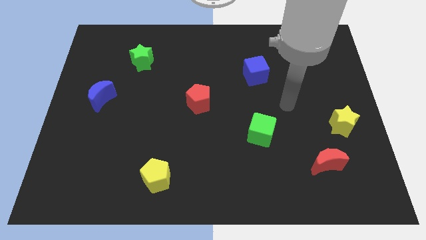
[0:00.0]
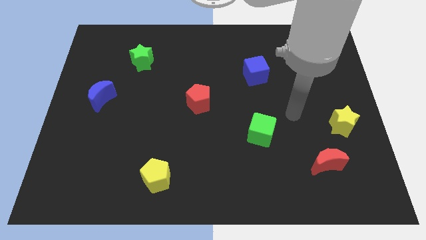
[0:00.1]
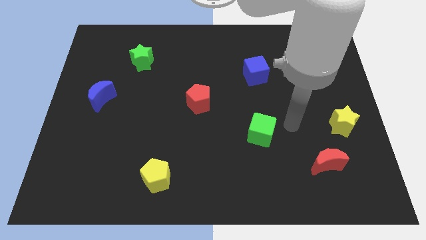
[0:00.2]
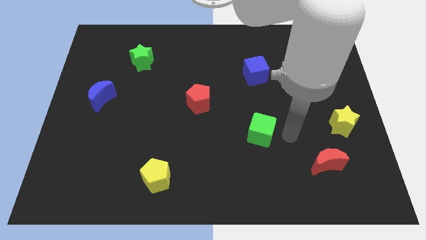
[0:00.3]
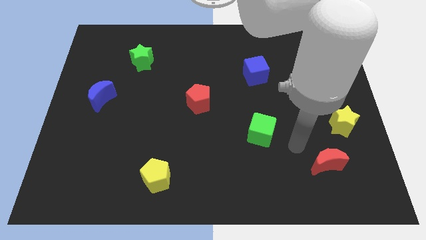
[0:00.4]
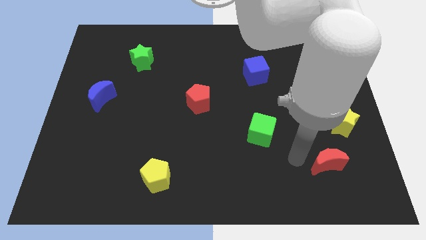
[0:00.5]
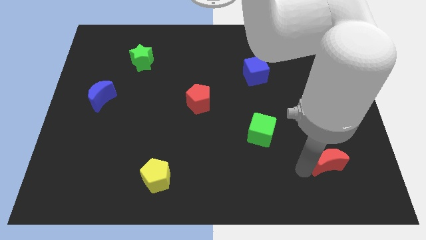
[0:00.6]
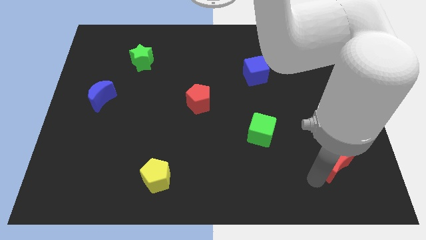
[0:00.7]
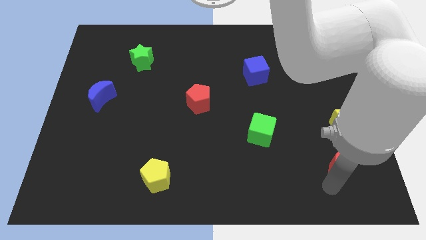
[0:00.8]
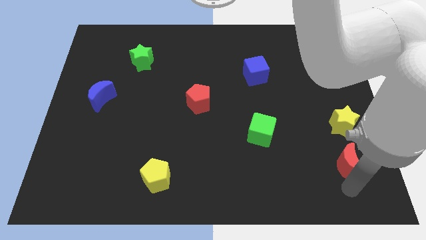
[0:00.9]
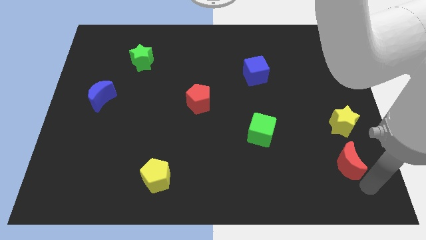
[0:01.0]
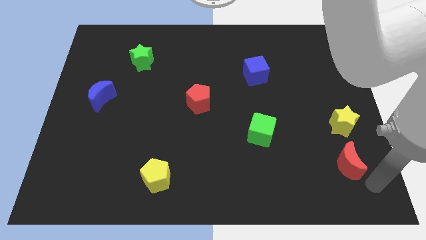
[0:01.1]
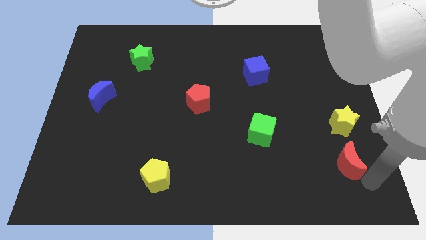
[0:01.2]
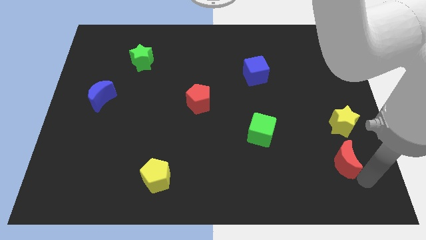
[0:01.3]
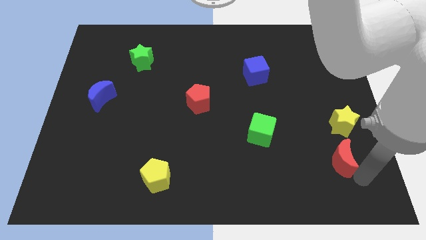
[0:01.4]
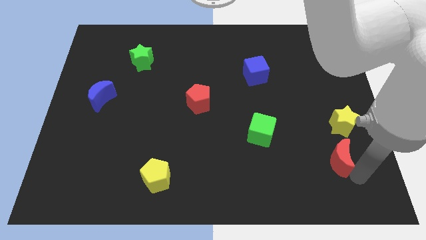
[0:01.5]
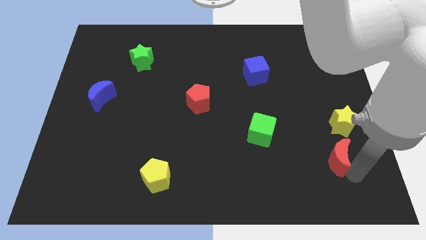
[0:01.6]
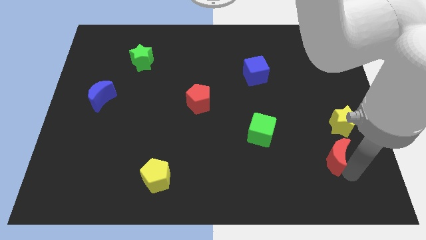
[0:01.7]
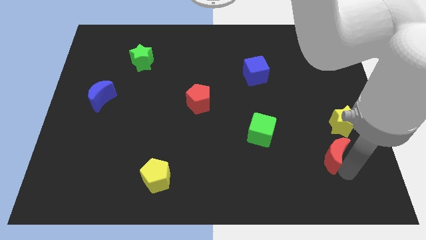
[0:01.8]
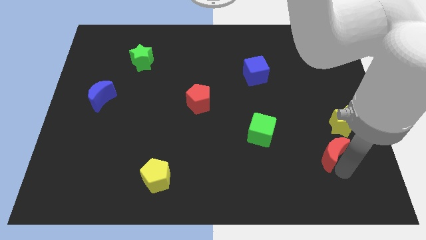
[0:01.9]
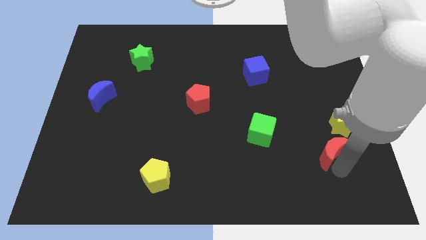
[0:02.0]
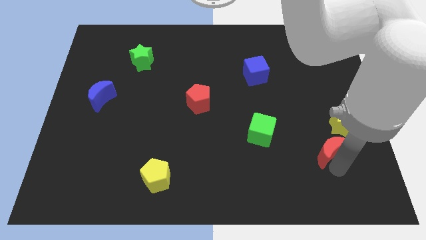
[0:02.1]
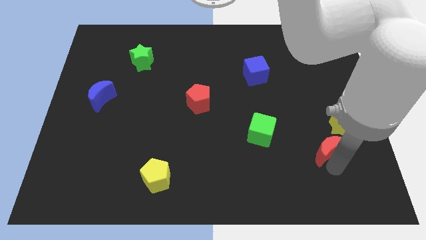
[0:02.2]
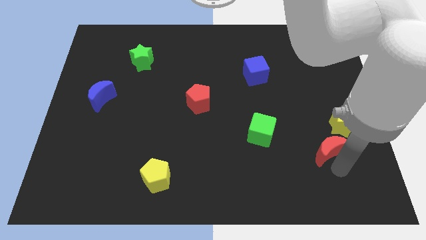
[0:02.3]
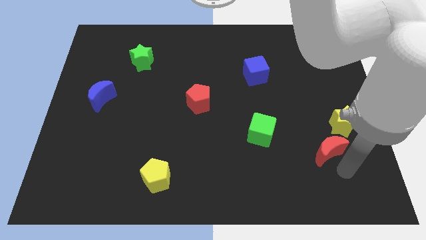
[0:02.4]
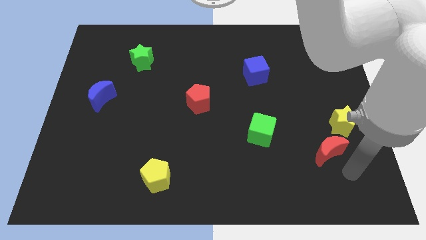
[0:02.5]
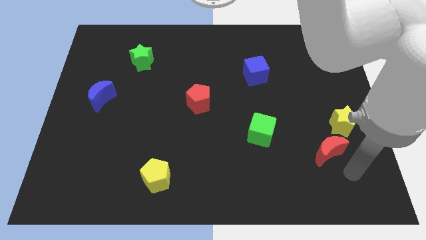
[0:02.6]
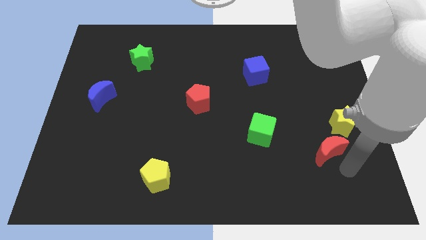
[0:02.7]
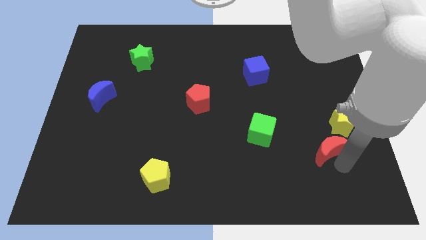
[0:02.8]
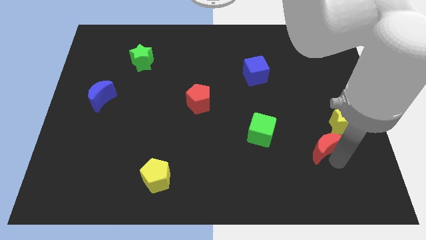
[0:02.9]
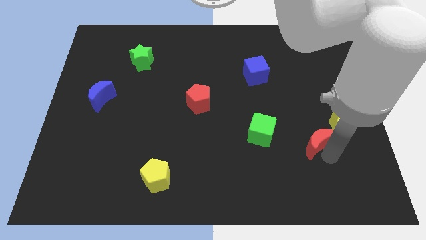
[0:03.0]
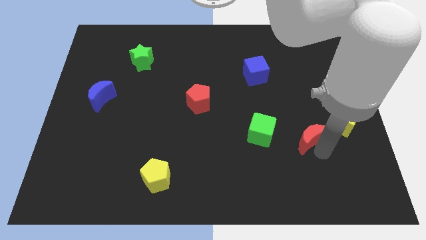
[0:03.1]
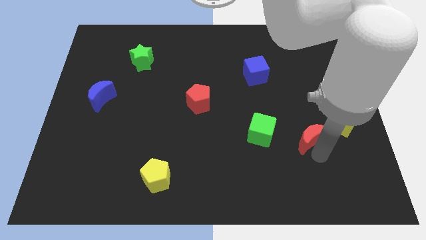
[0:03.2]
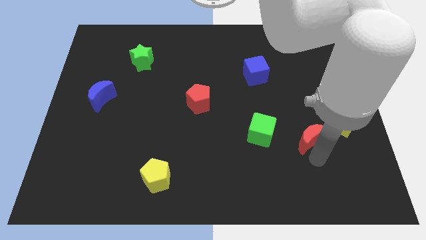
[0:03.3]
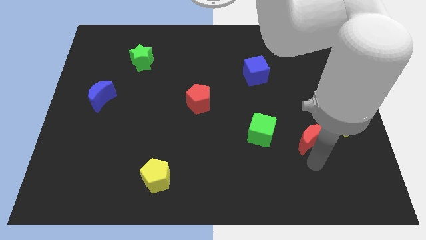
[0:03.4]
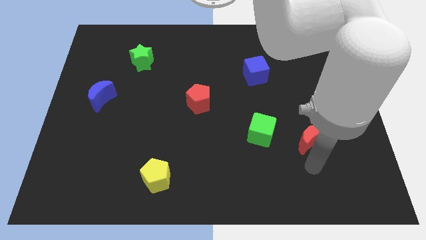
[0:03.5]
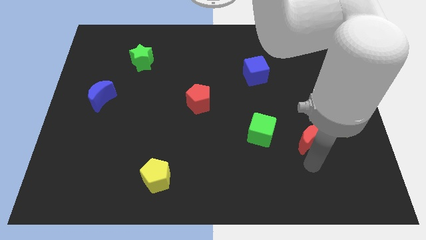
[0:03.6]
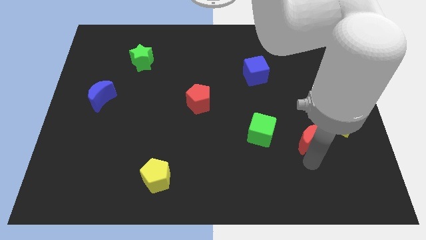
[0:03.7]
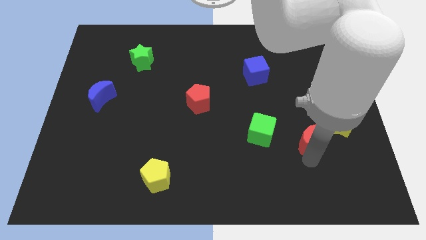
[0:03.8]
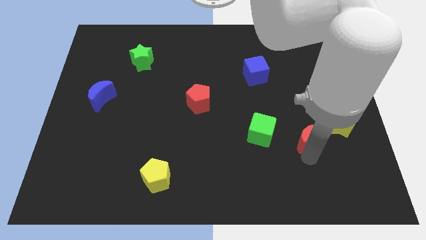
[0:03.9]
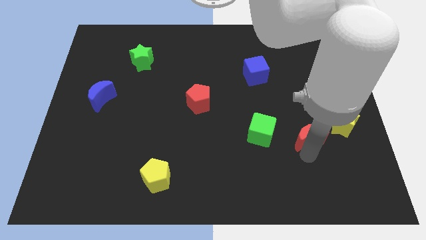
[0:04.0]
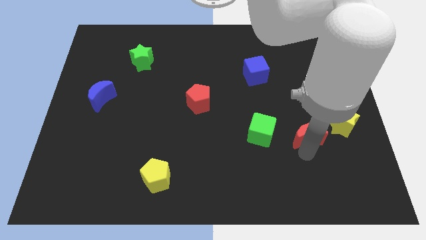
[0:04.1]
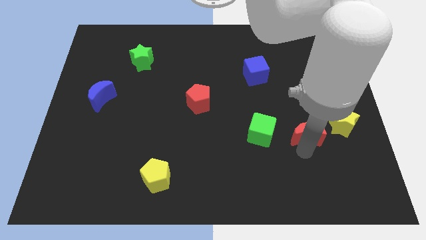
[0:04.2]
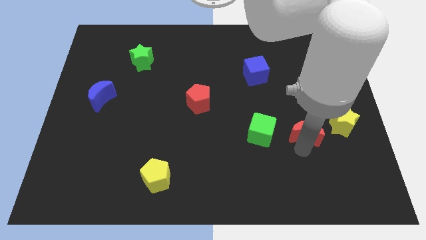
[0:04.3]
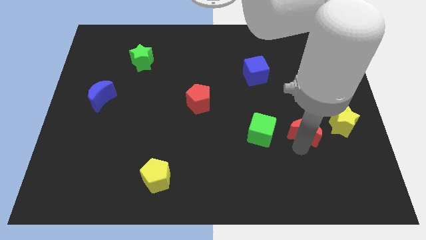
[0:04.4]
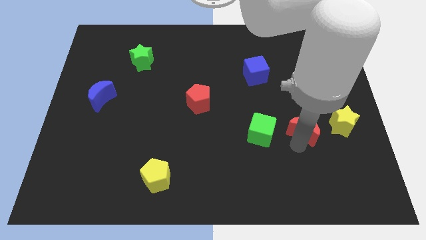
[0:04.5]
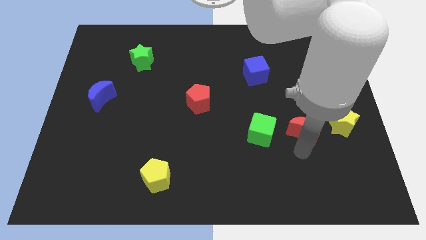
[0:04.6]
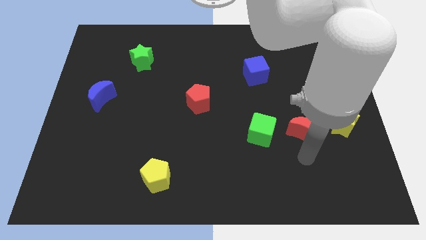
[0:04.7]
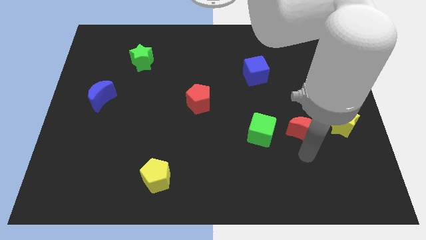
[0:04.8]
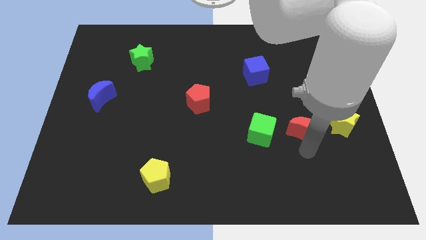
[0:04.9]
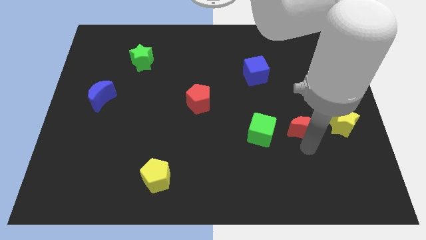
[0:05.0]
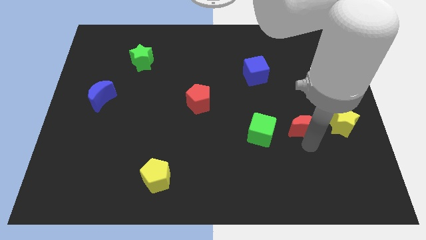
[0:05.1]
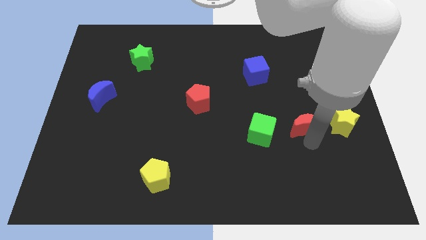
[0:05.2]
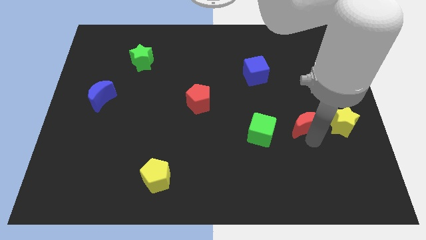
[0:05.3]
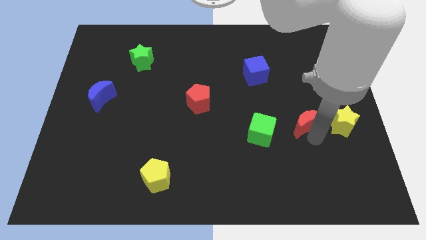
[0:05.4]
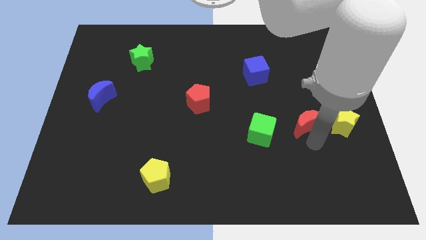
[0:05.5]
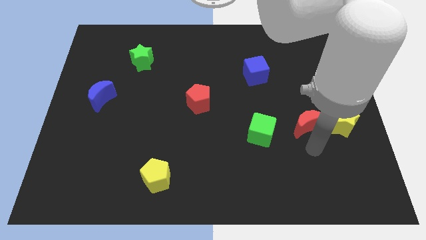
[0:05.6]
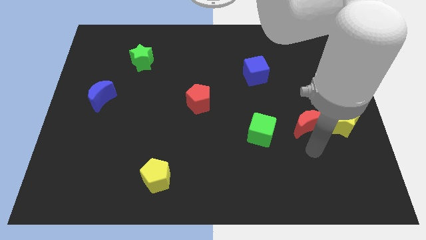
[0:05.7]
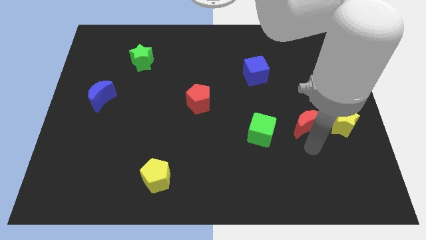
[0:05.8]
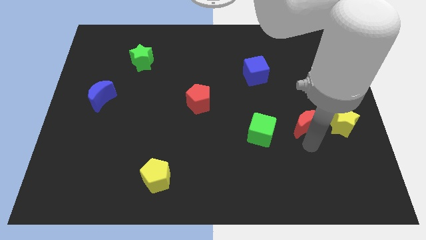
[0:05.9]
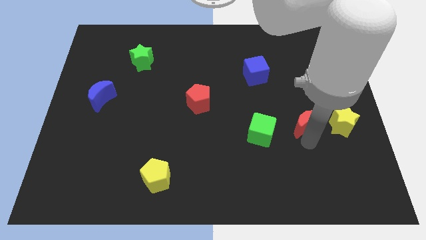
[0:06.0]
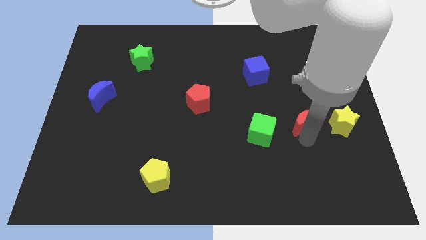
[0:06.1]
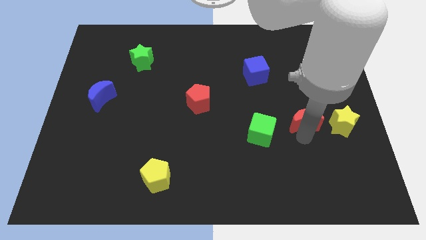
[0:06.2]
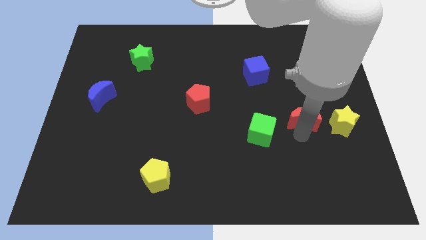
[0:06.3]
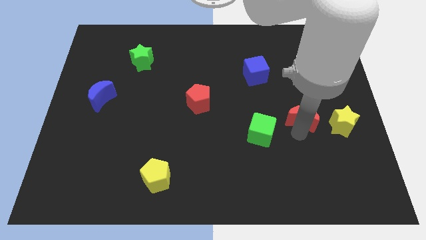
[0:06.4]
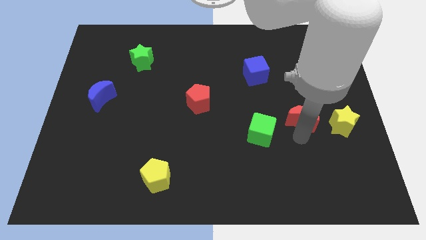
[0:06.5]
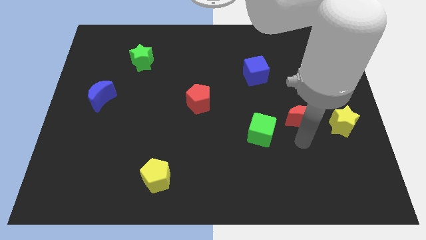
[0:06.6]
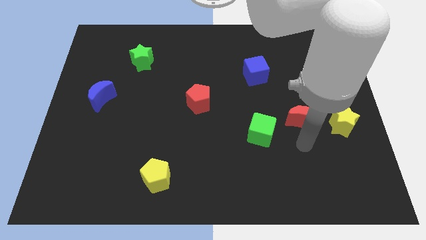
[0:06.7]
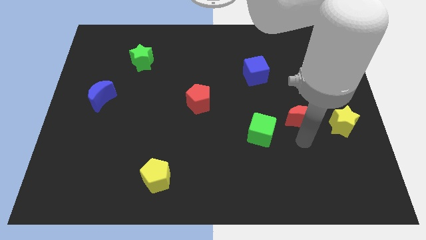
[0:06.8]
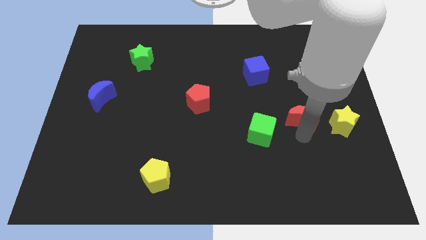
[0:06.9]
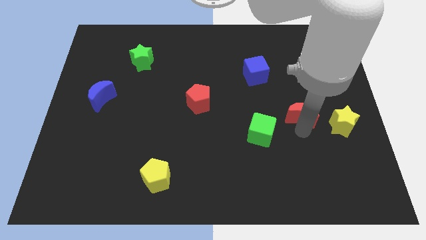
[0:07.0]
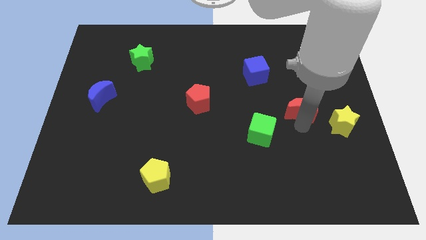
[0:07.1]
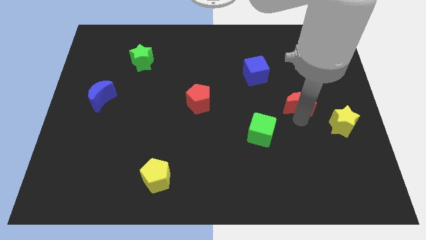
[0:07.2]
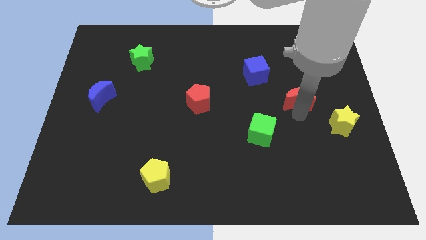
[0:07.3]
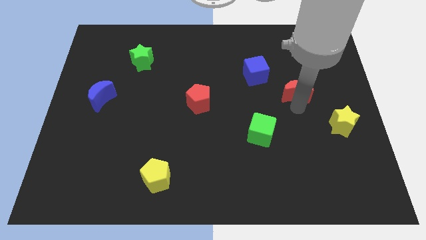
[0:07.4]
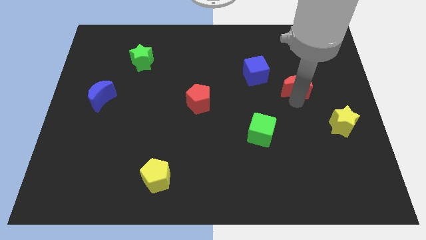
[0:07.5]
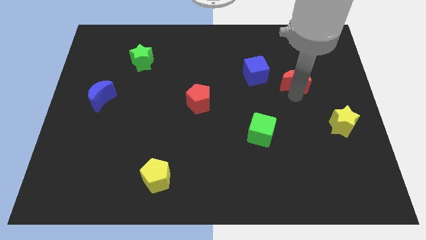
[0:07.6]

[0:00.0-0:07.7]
push the red moon just right of the blue cube

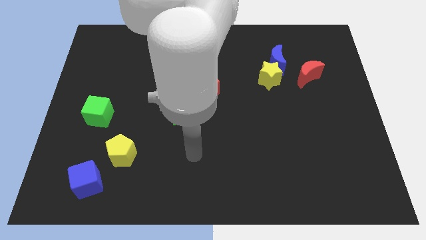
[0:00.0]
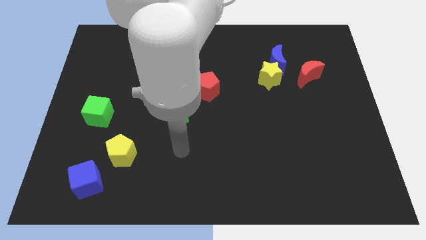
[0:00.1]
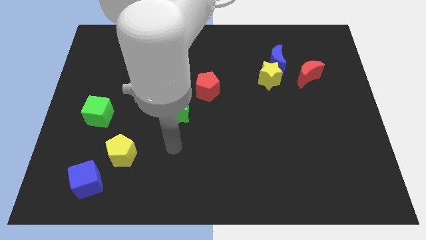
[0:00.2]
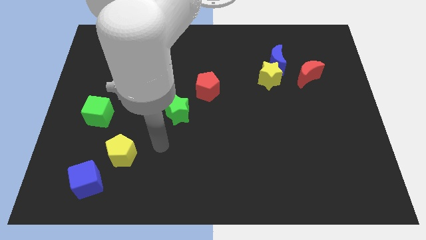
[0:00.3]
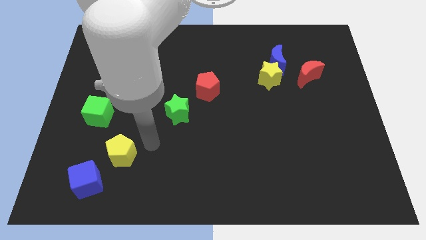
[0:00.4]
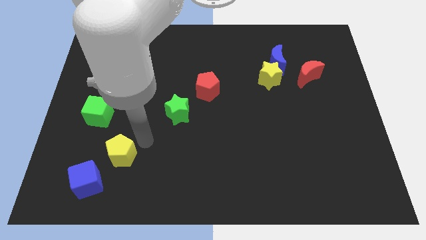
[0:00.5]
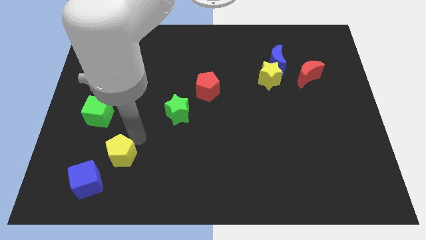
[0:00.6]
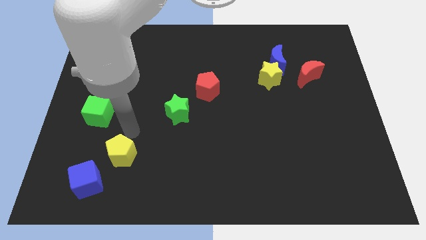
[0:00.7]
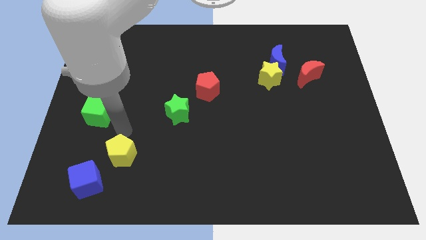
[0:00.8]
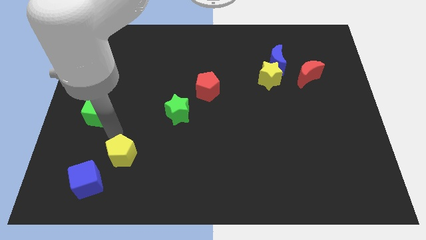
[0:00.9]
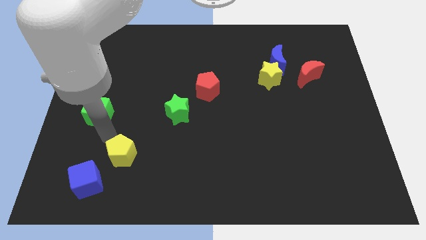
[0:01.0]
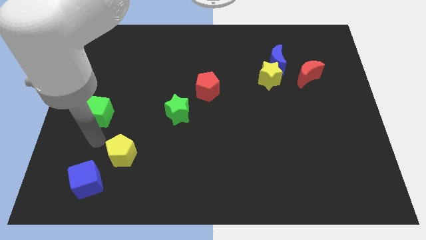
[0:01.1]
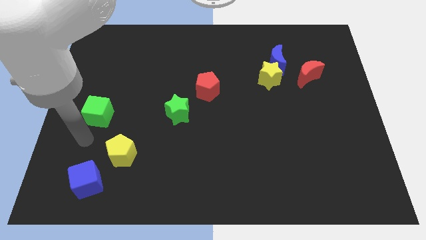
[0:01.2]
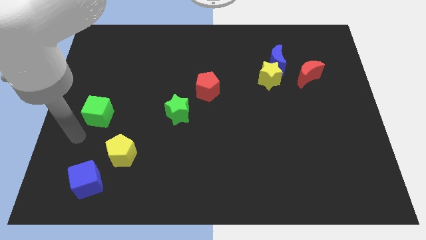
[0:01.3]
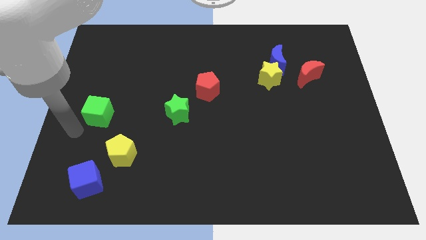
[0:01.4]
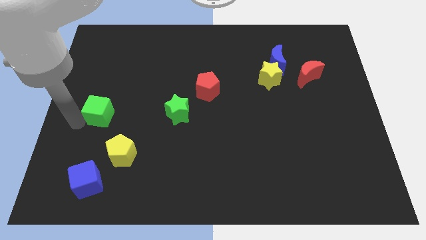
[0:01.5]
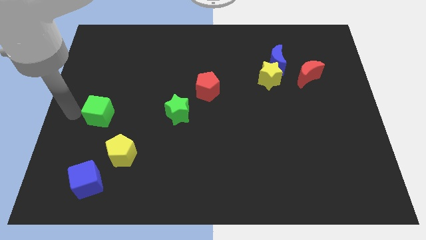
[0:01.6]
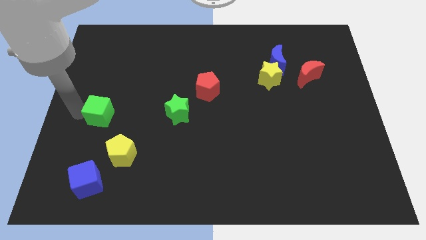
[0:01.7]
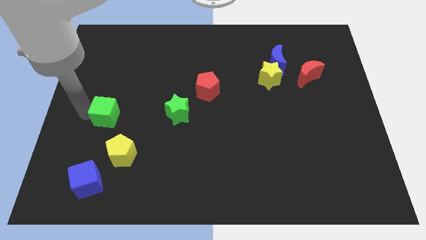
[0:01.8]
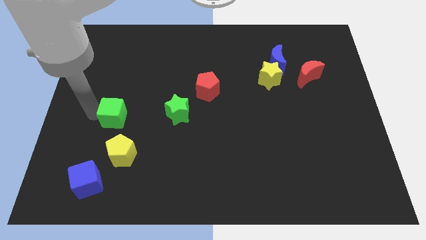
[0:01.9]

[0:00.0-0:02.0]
put the green cube to the top of the yellow pentagon
